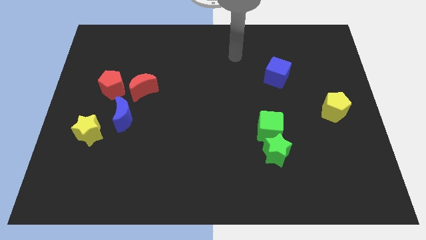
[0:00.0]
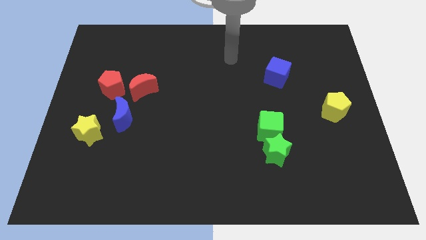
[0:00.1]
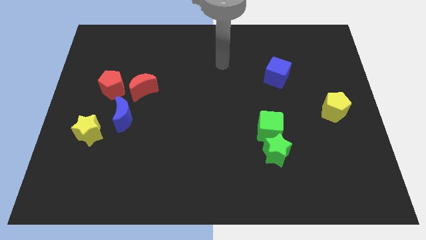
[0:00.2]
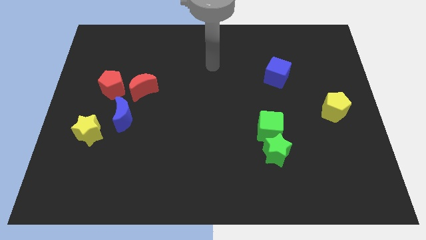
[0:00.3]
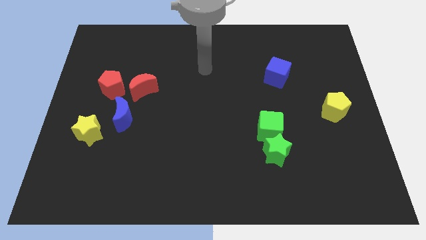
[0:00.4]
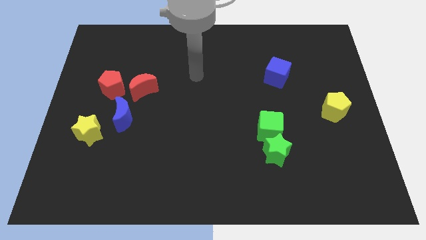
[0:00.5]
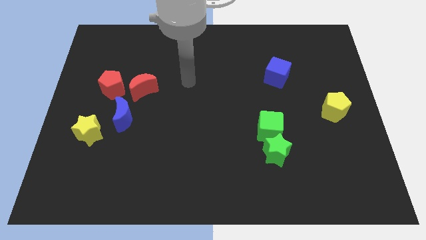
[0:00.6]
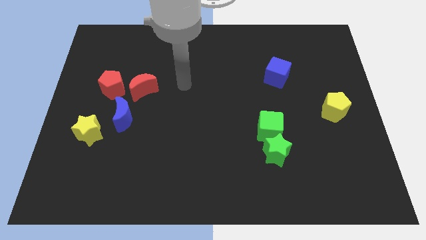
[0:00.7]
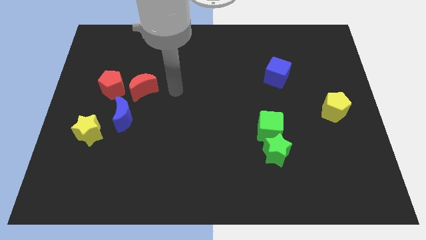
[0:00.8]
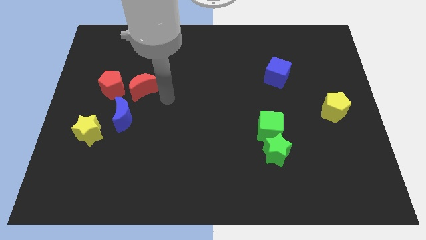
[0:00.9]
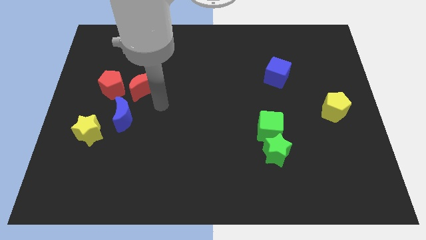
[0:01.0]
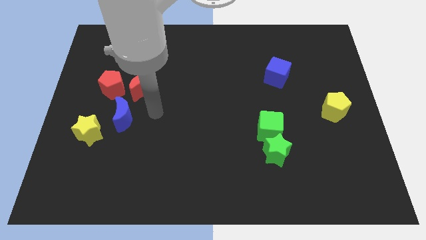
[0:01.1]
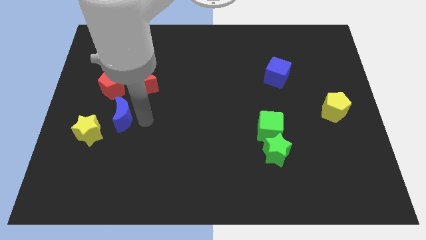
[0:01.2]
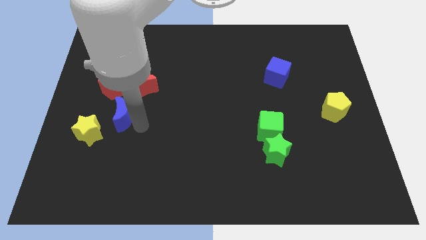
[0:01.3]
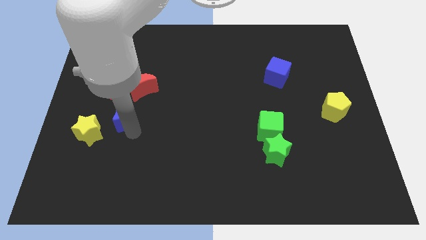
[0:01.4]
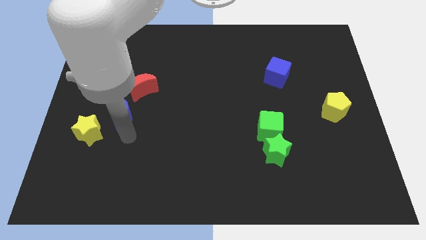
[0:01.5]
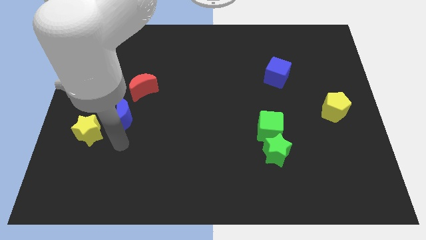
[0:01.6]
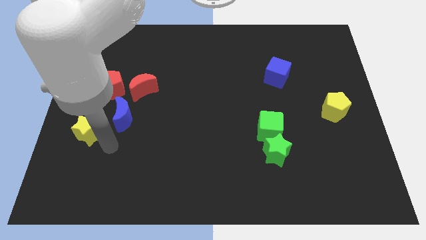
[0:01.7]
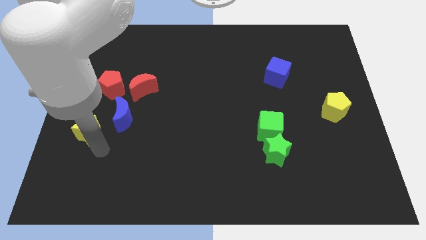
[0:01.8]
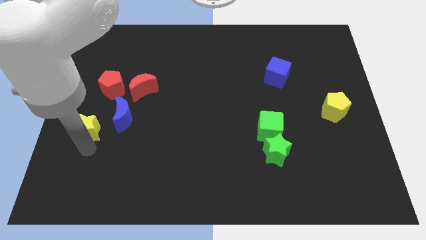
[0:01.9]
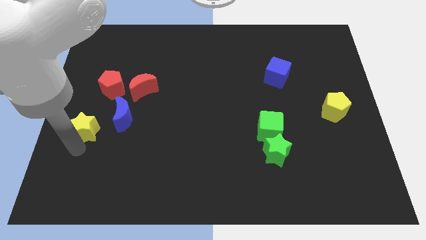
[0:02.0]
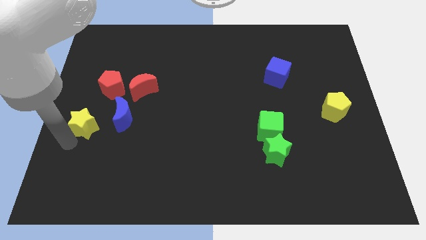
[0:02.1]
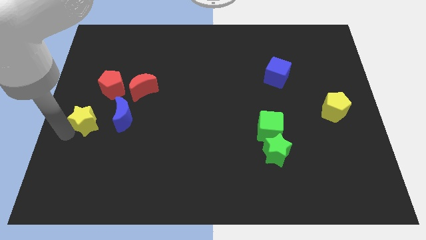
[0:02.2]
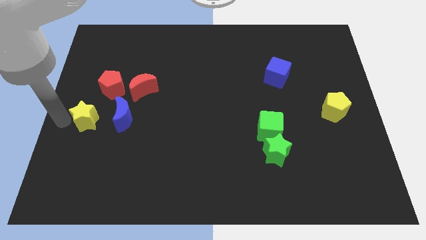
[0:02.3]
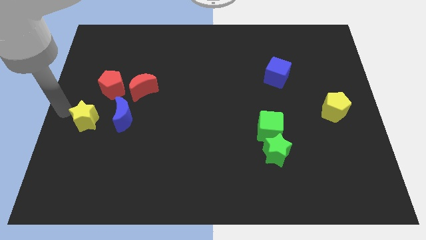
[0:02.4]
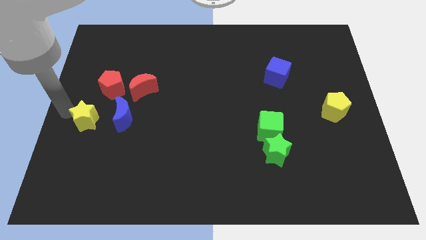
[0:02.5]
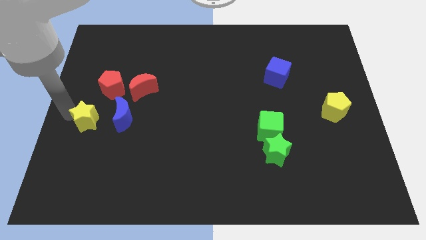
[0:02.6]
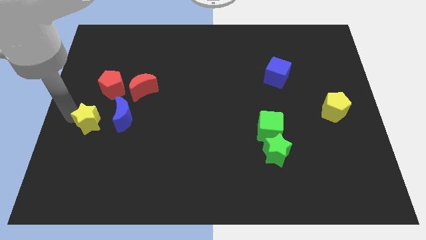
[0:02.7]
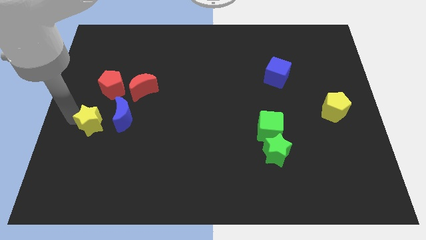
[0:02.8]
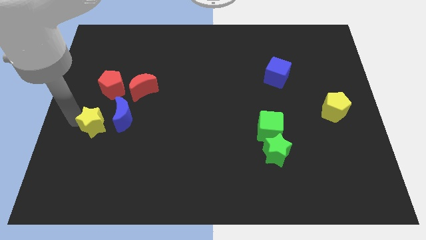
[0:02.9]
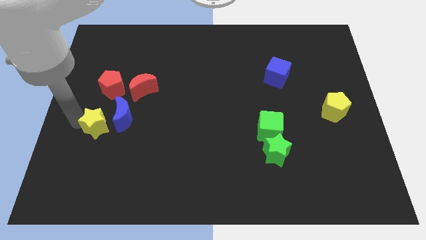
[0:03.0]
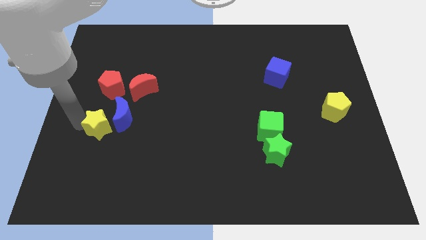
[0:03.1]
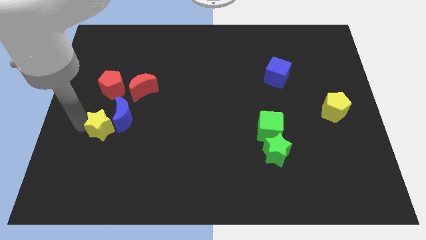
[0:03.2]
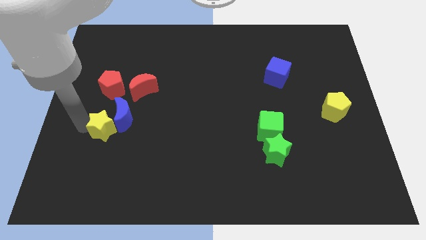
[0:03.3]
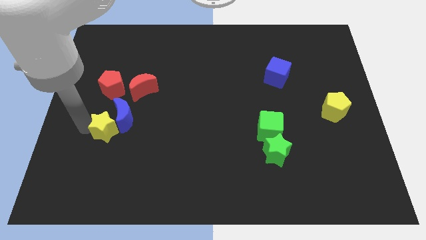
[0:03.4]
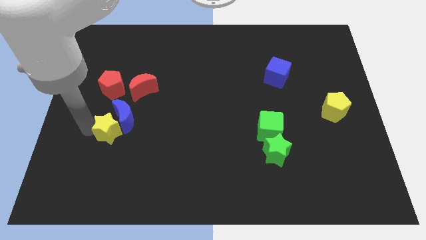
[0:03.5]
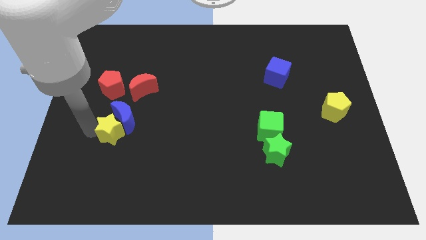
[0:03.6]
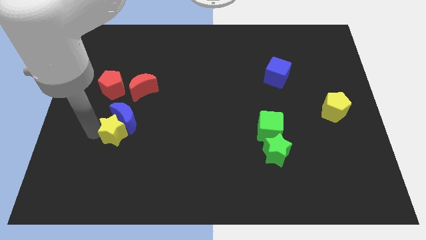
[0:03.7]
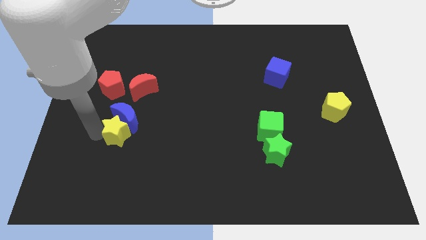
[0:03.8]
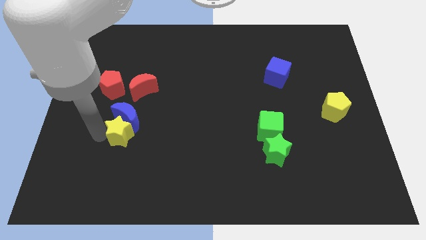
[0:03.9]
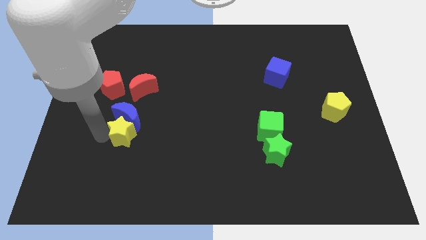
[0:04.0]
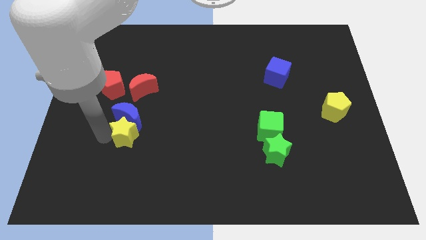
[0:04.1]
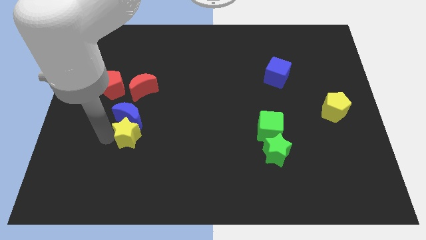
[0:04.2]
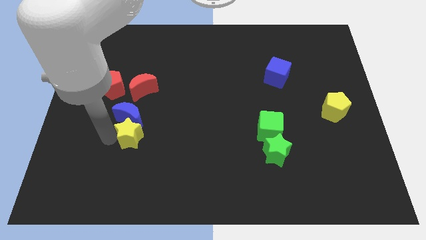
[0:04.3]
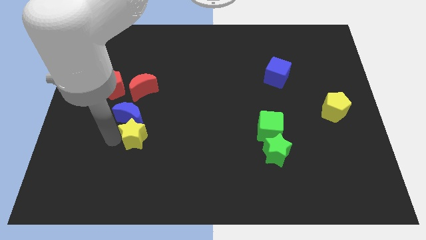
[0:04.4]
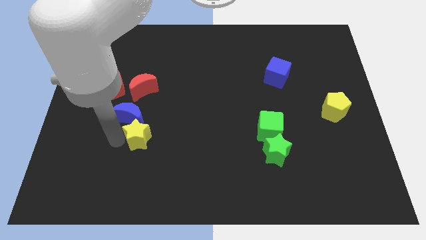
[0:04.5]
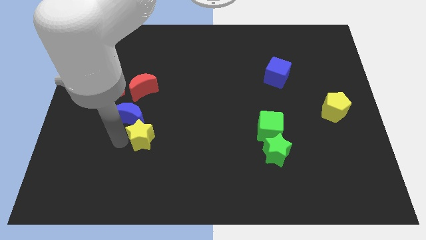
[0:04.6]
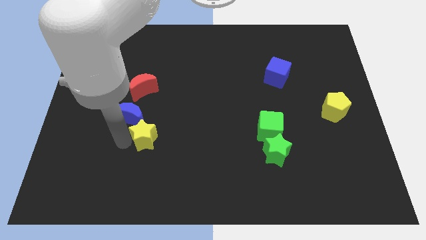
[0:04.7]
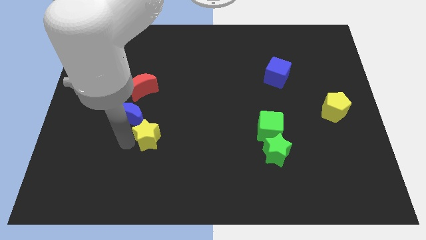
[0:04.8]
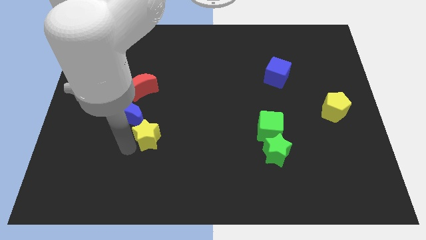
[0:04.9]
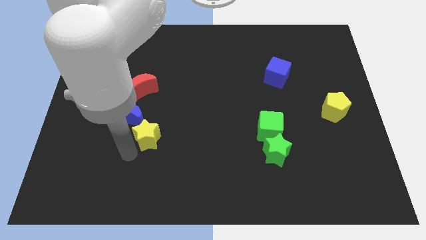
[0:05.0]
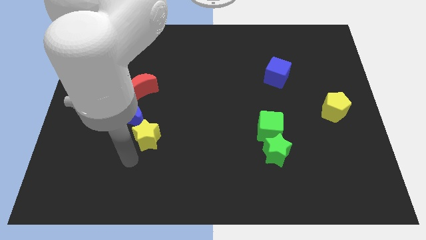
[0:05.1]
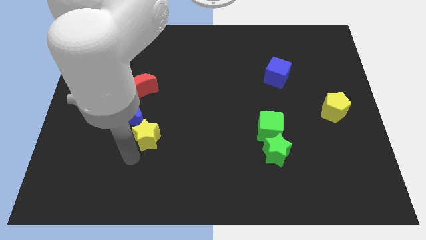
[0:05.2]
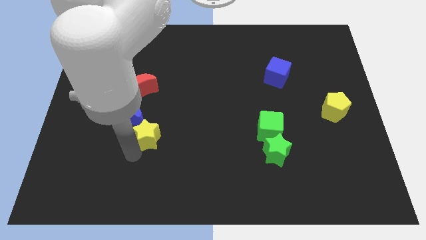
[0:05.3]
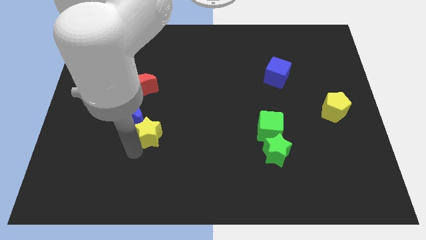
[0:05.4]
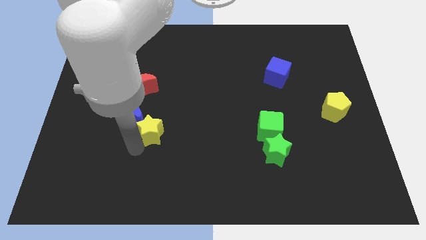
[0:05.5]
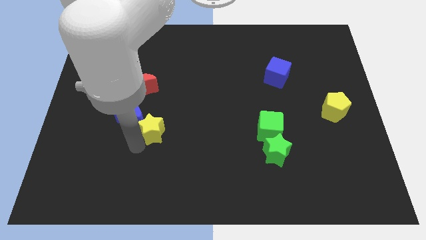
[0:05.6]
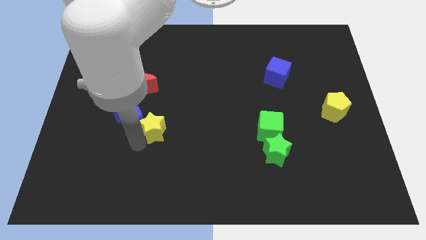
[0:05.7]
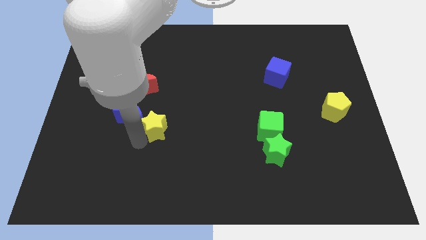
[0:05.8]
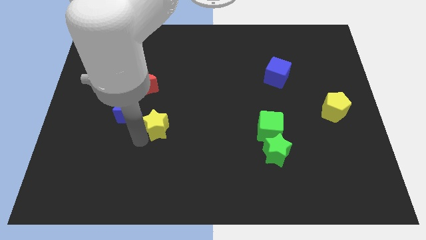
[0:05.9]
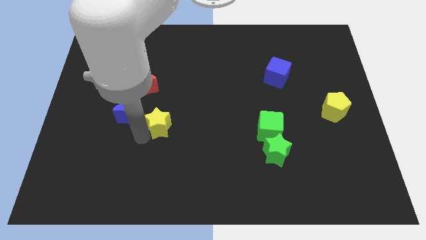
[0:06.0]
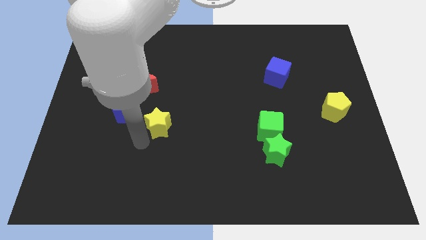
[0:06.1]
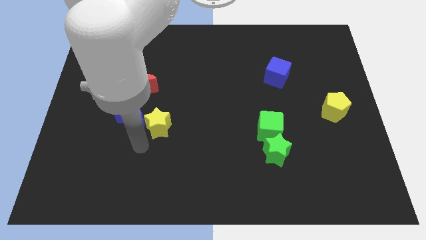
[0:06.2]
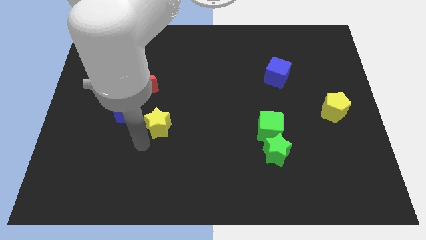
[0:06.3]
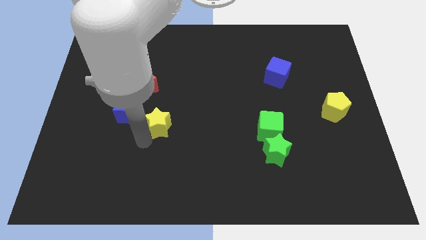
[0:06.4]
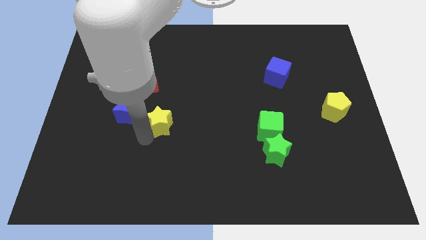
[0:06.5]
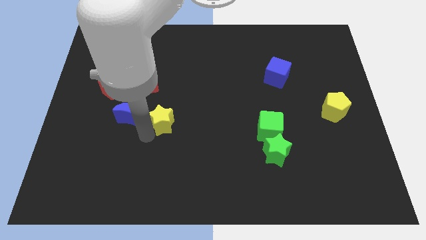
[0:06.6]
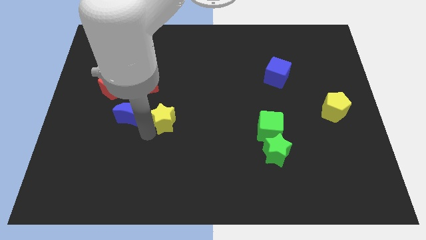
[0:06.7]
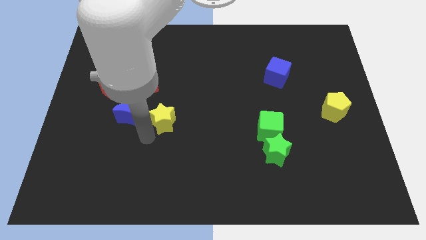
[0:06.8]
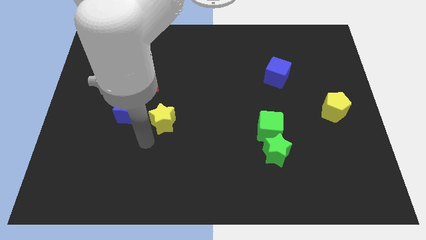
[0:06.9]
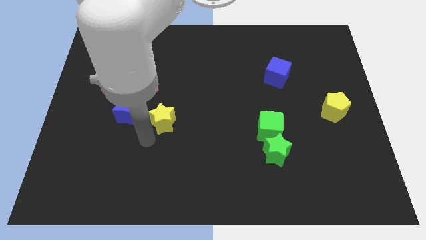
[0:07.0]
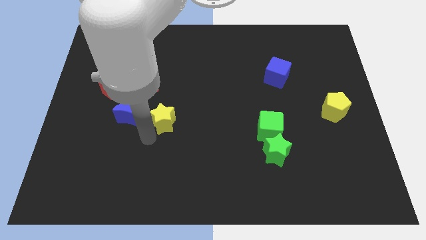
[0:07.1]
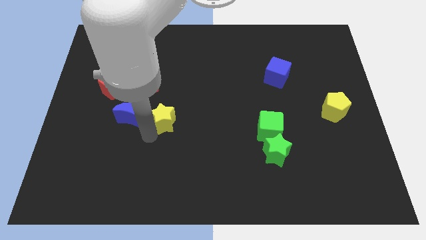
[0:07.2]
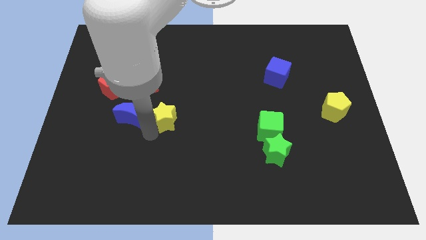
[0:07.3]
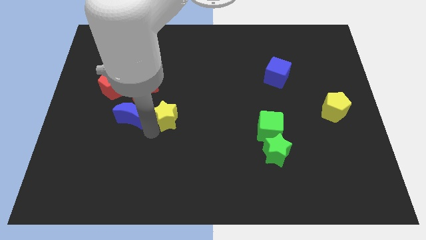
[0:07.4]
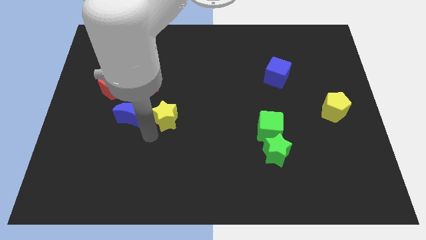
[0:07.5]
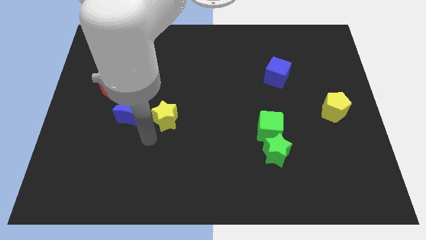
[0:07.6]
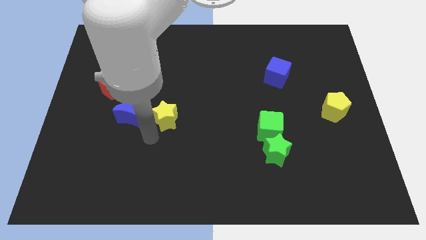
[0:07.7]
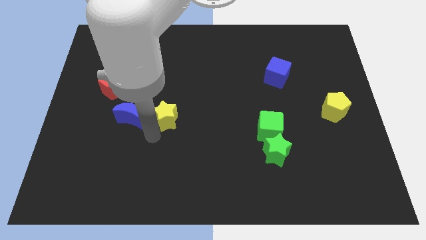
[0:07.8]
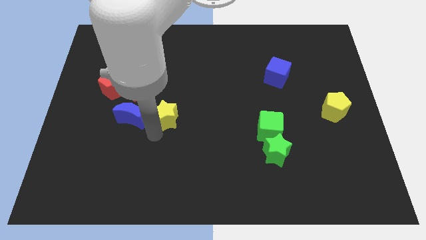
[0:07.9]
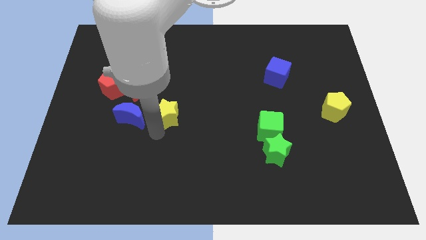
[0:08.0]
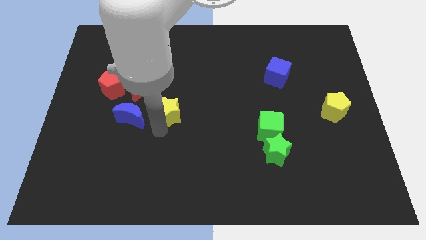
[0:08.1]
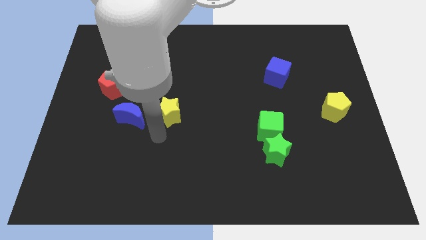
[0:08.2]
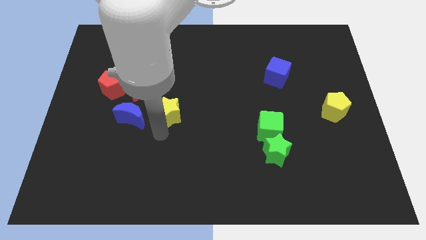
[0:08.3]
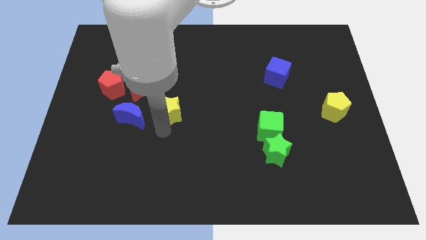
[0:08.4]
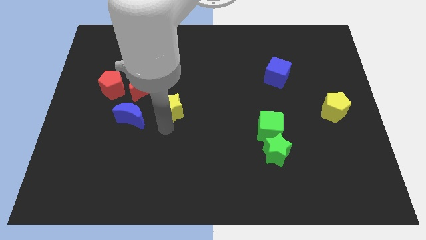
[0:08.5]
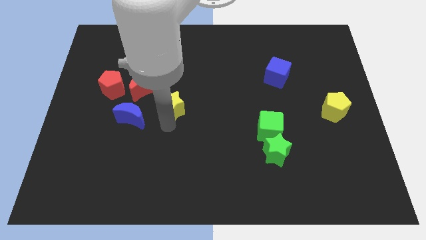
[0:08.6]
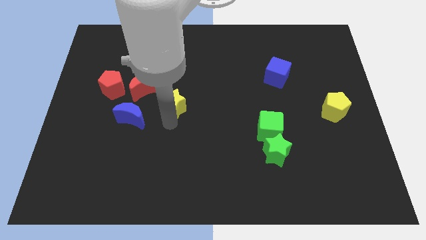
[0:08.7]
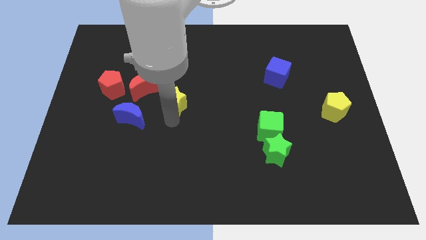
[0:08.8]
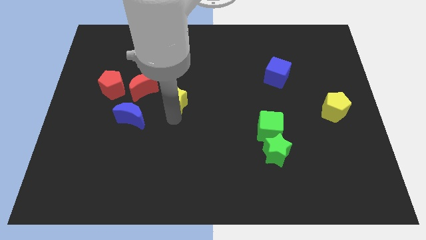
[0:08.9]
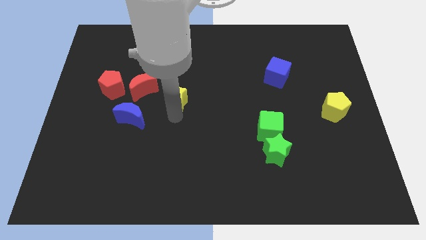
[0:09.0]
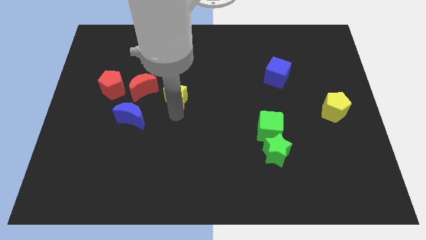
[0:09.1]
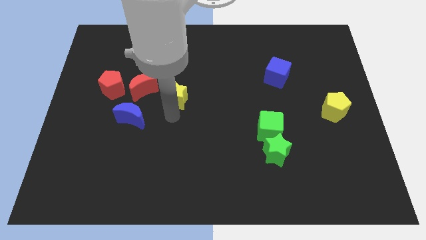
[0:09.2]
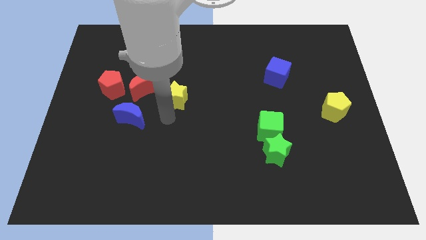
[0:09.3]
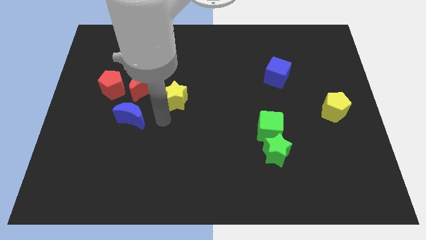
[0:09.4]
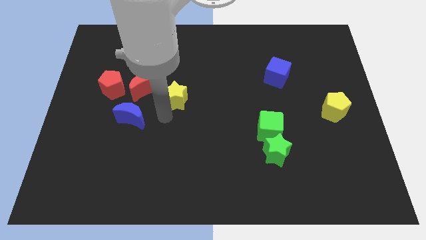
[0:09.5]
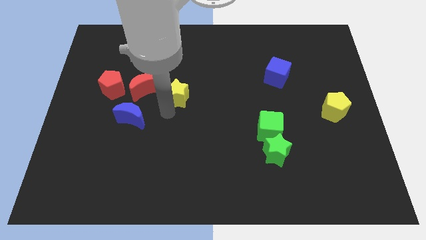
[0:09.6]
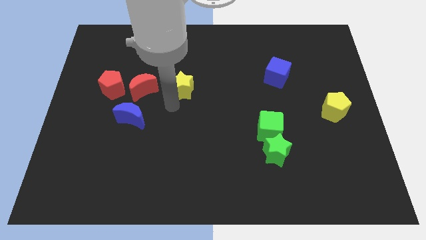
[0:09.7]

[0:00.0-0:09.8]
push the yellow star upwards and right
